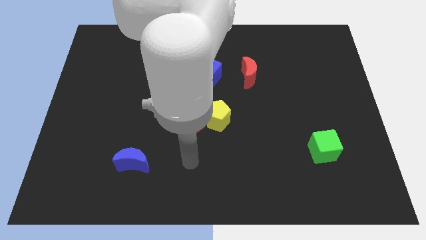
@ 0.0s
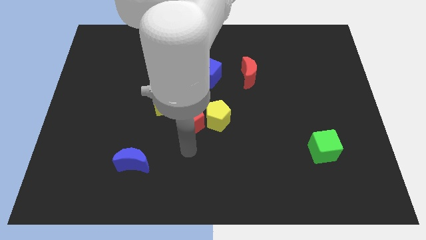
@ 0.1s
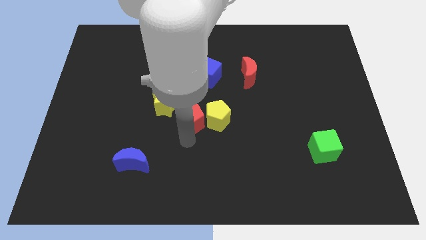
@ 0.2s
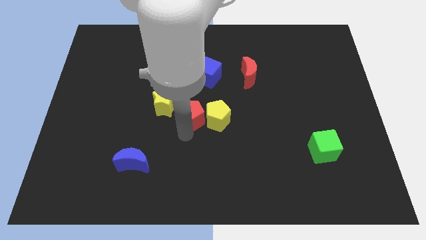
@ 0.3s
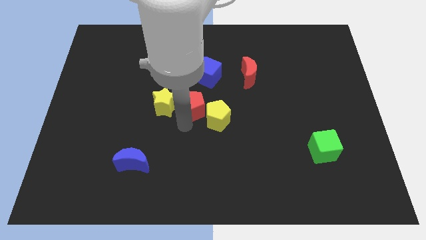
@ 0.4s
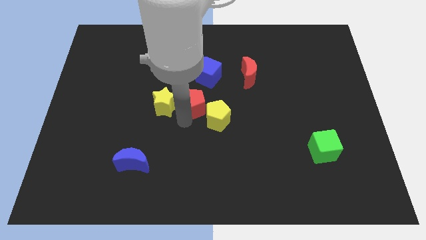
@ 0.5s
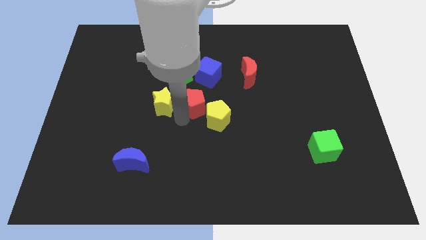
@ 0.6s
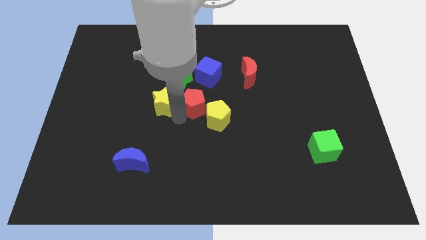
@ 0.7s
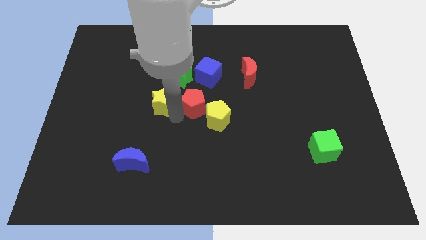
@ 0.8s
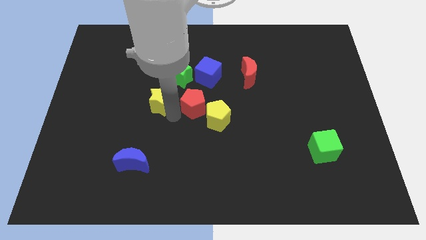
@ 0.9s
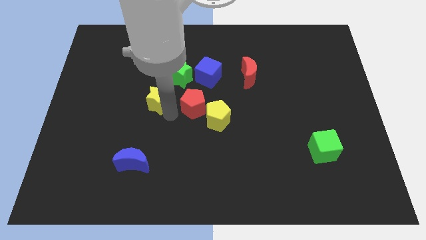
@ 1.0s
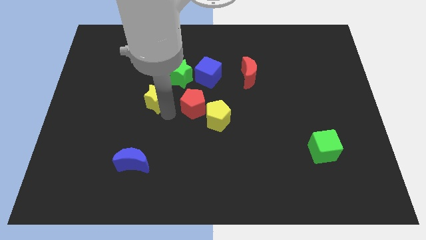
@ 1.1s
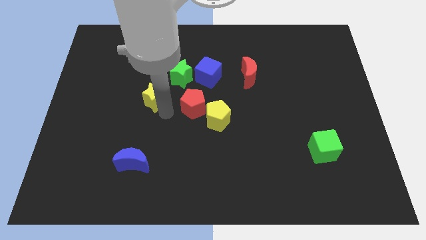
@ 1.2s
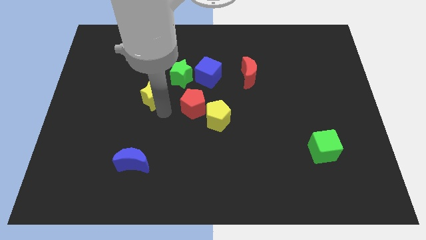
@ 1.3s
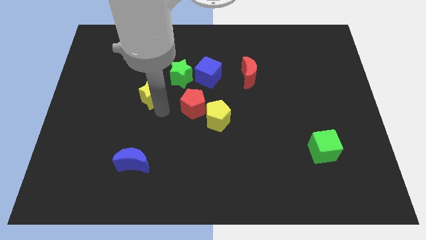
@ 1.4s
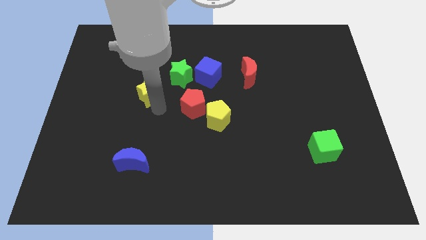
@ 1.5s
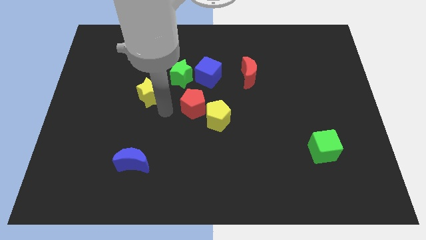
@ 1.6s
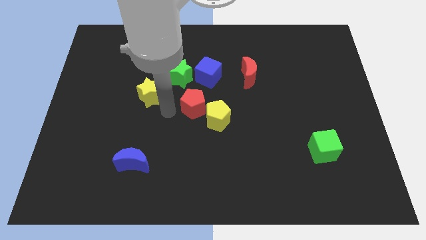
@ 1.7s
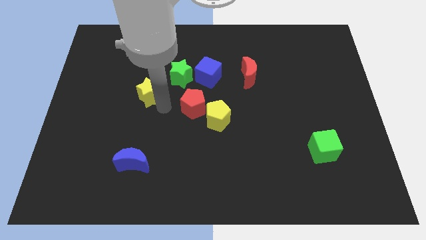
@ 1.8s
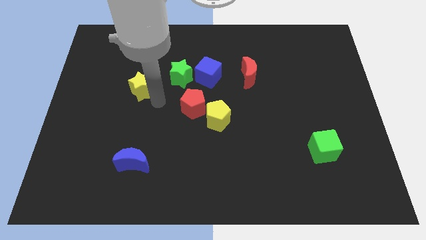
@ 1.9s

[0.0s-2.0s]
slightly move the yellow star upwards and then left

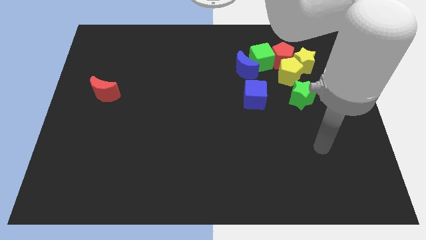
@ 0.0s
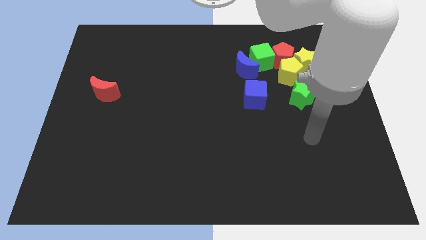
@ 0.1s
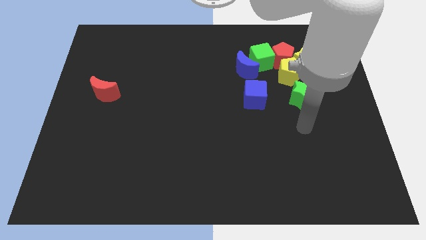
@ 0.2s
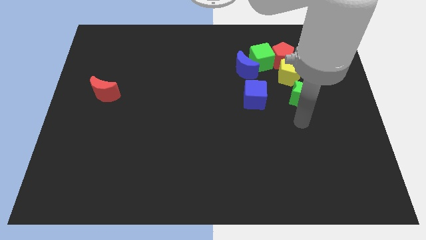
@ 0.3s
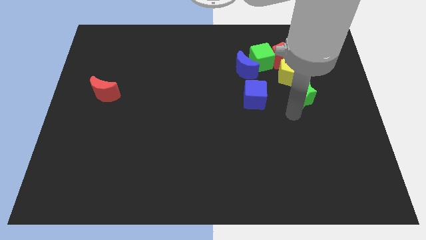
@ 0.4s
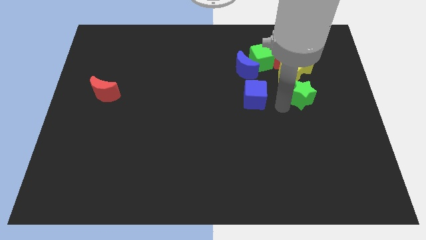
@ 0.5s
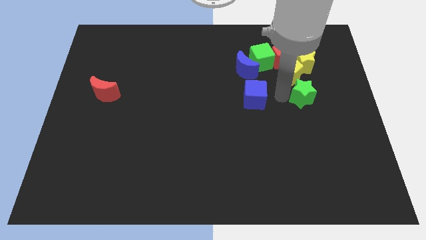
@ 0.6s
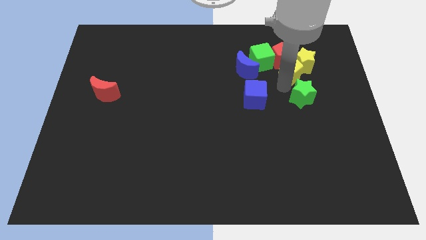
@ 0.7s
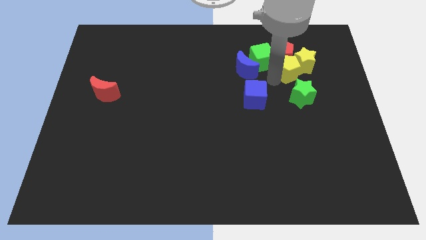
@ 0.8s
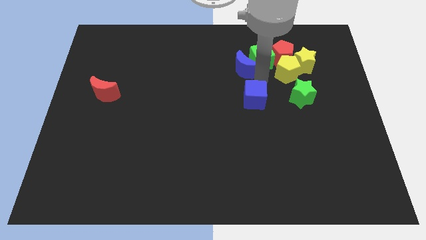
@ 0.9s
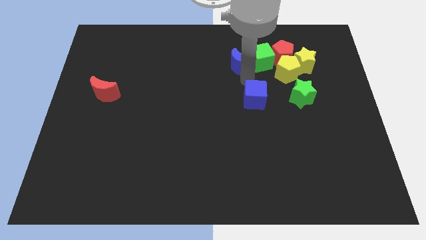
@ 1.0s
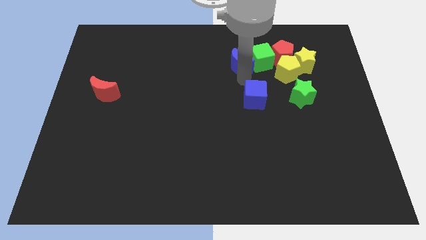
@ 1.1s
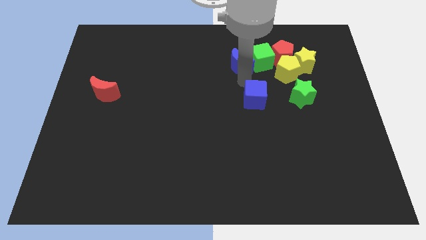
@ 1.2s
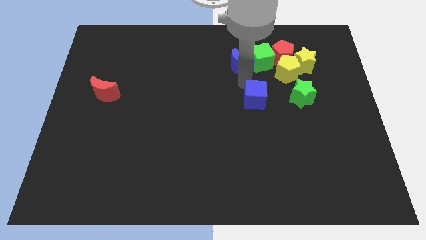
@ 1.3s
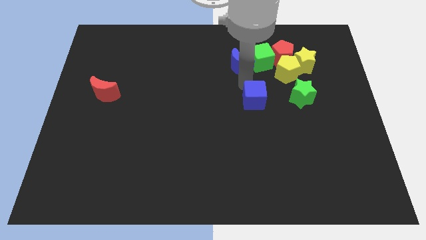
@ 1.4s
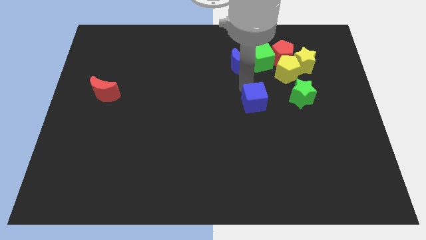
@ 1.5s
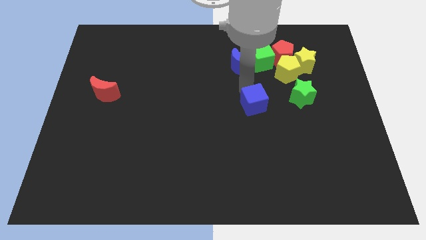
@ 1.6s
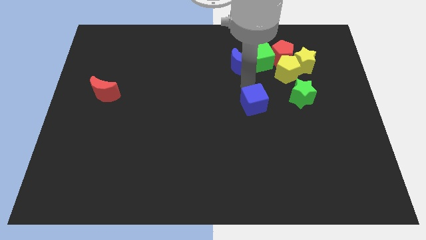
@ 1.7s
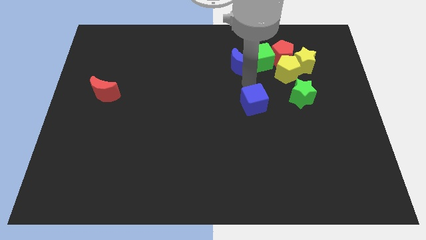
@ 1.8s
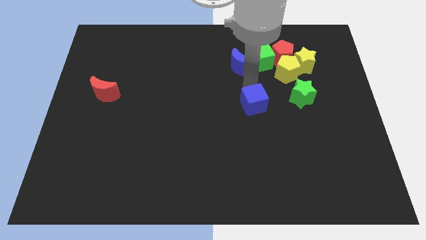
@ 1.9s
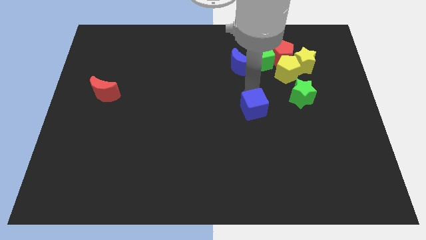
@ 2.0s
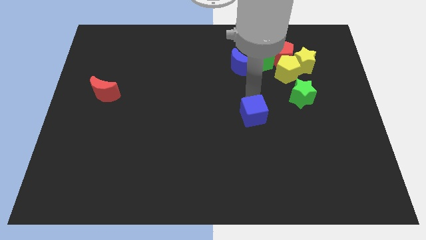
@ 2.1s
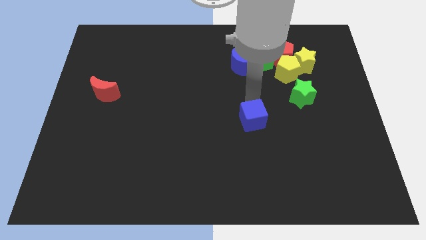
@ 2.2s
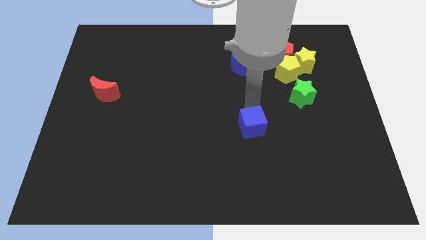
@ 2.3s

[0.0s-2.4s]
slightly move the blue cube downwards

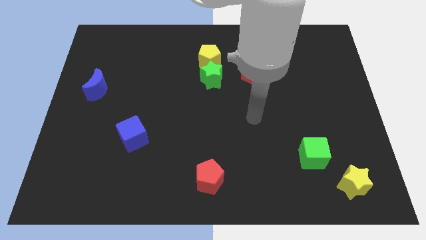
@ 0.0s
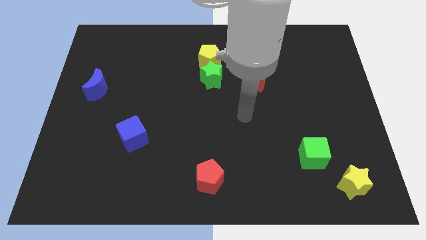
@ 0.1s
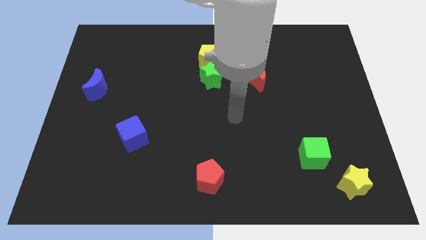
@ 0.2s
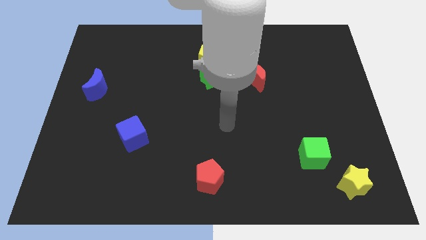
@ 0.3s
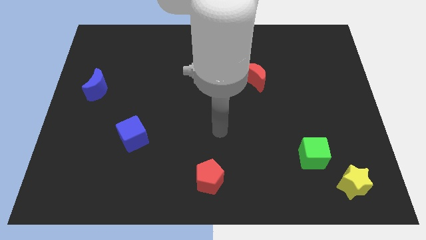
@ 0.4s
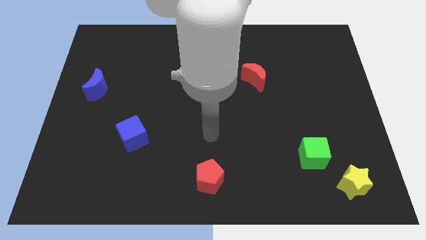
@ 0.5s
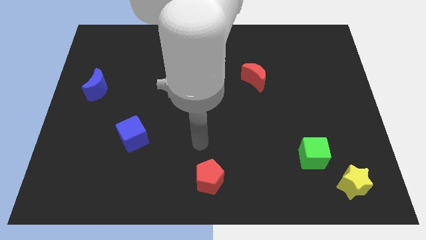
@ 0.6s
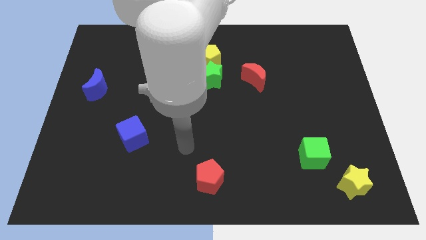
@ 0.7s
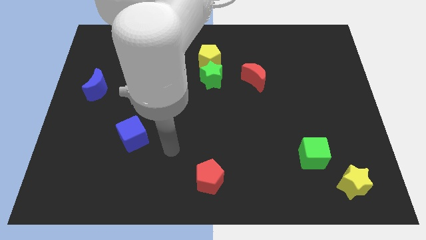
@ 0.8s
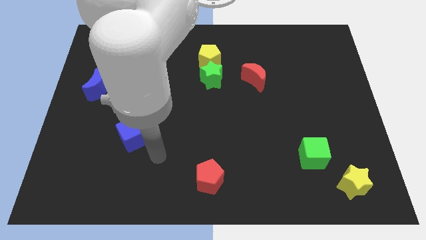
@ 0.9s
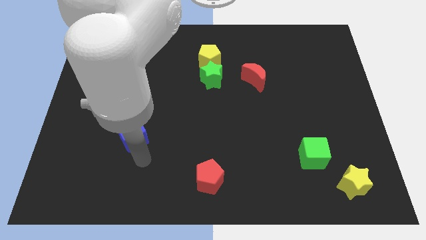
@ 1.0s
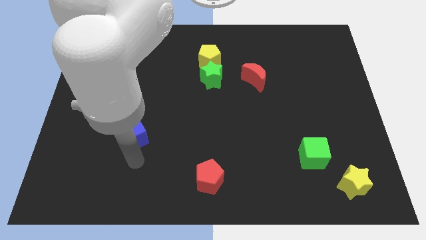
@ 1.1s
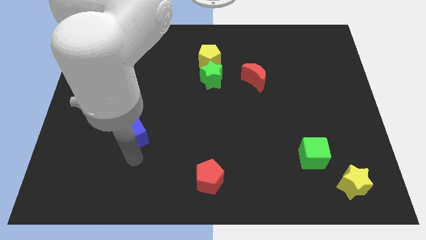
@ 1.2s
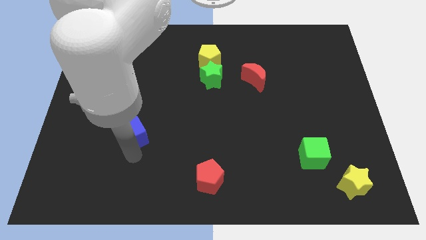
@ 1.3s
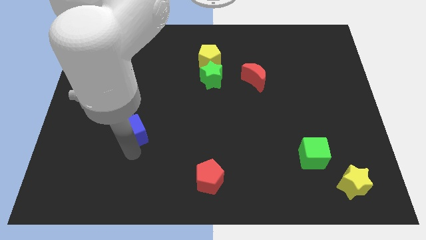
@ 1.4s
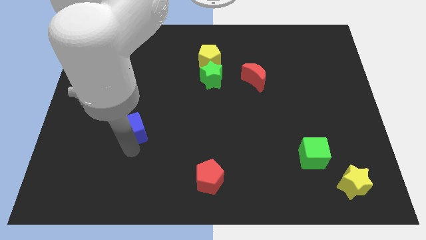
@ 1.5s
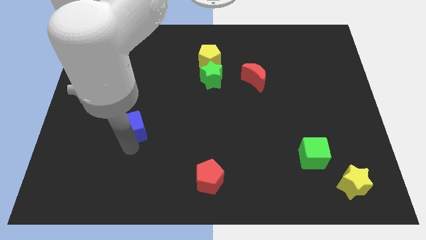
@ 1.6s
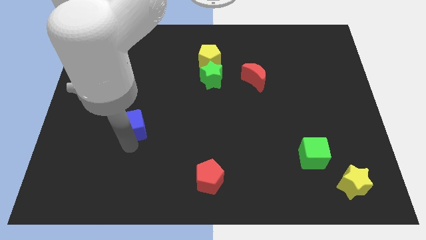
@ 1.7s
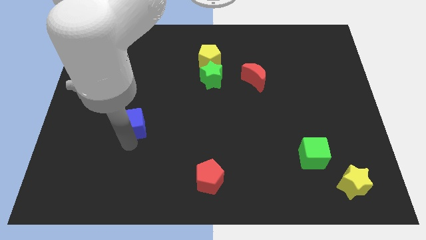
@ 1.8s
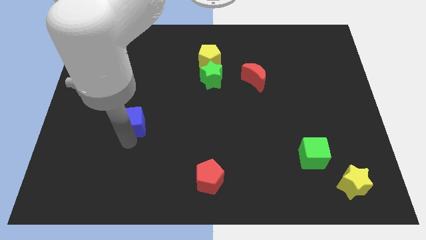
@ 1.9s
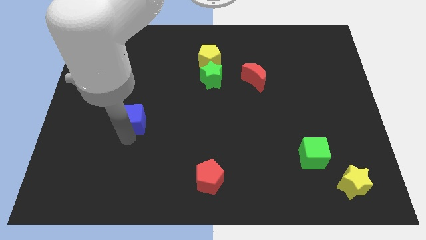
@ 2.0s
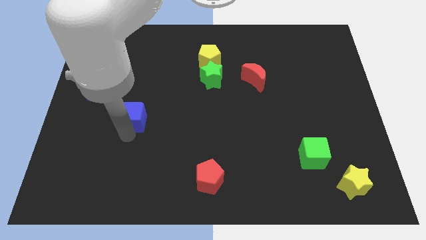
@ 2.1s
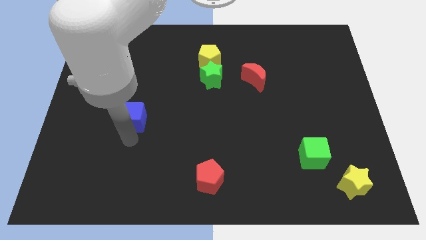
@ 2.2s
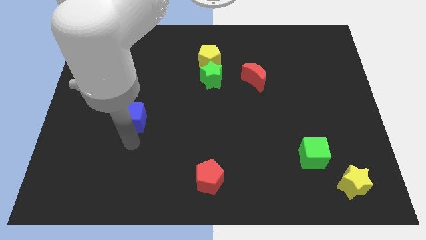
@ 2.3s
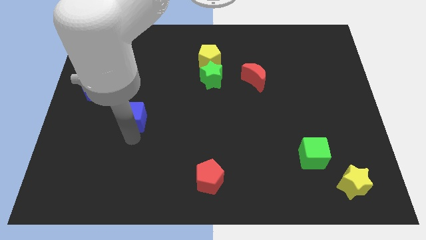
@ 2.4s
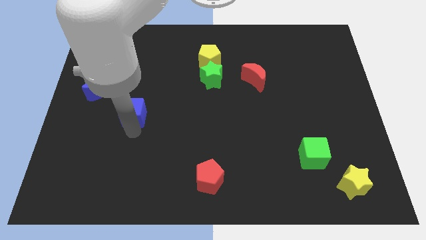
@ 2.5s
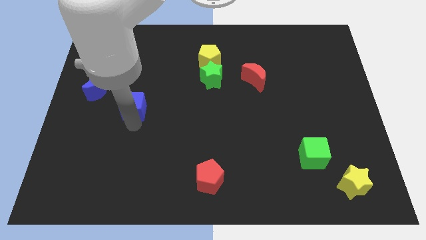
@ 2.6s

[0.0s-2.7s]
slide the blue cube up a bit

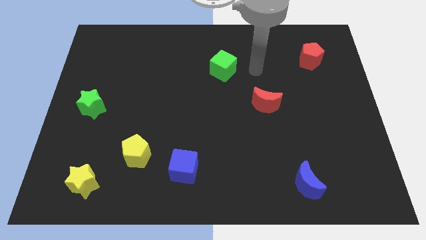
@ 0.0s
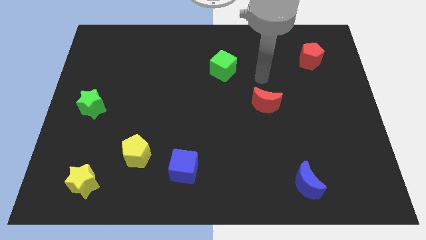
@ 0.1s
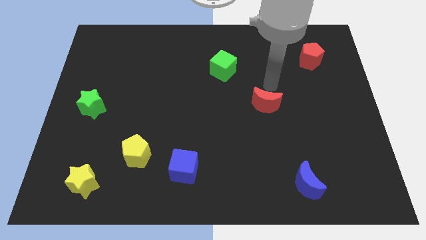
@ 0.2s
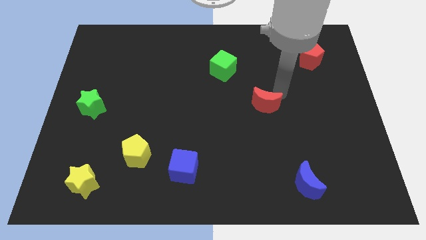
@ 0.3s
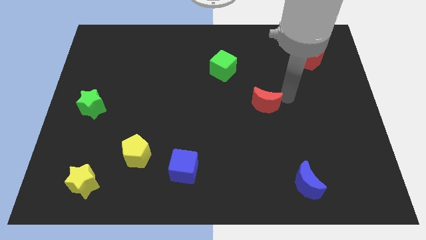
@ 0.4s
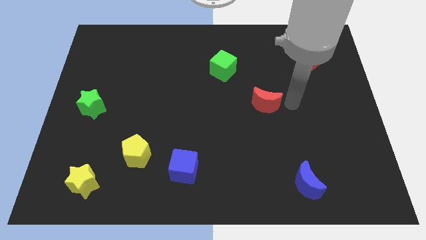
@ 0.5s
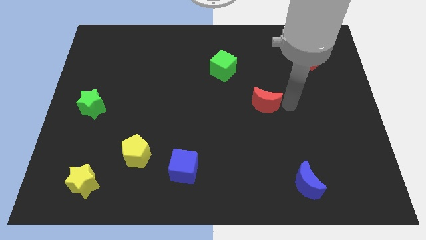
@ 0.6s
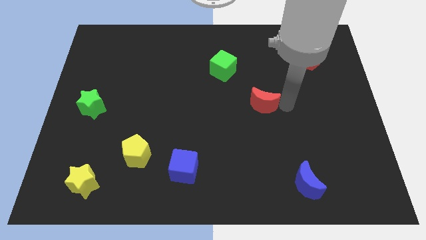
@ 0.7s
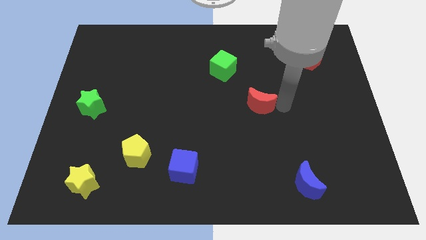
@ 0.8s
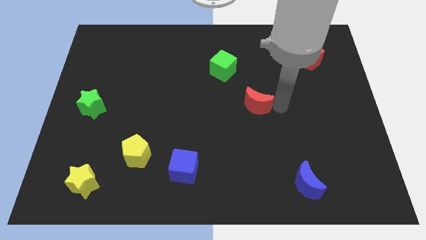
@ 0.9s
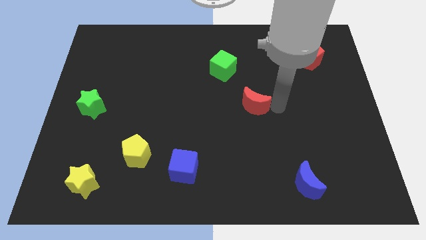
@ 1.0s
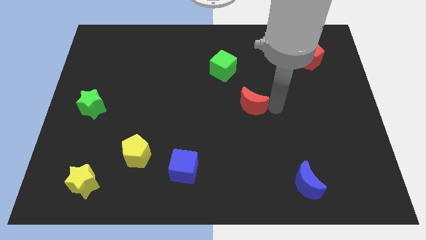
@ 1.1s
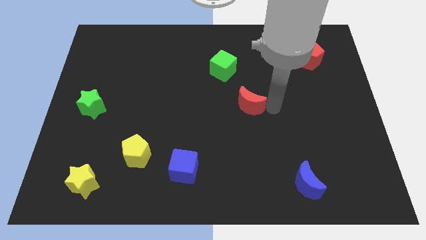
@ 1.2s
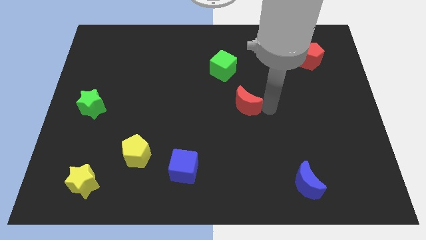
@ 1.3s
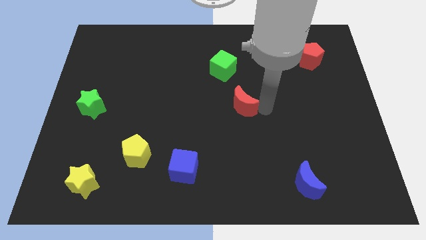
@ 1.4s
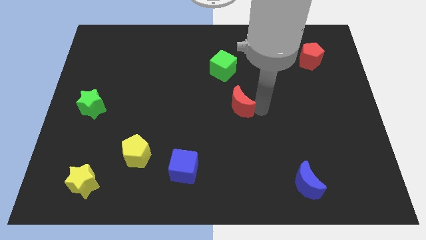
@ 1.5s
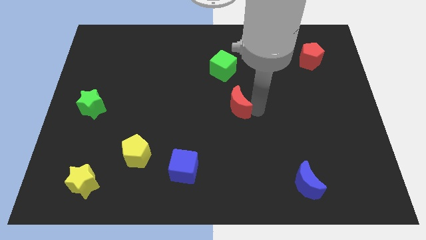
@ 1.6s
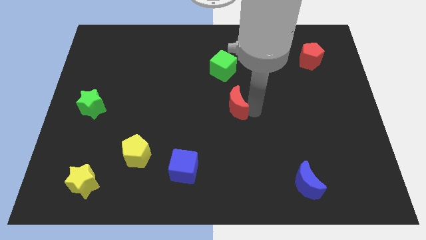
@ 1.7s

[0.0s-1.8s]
slide the red moon to the left somewhat
